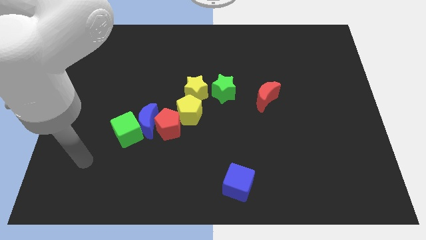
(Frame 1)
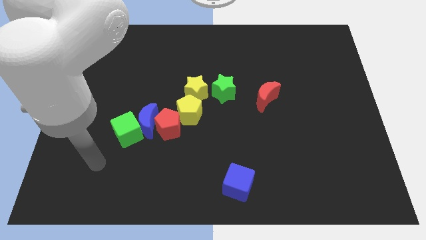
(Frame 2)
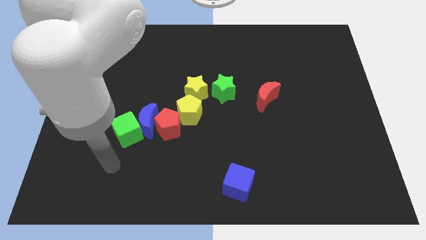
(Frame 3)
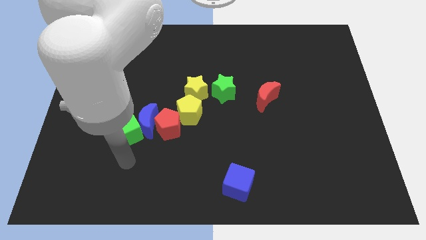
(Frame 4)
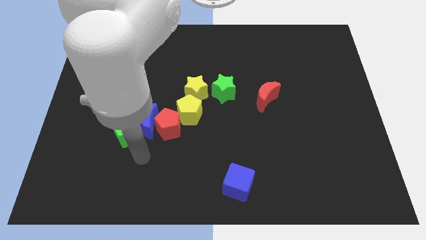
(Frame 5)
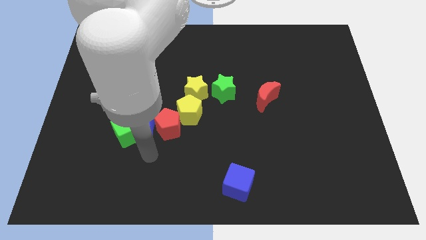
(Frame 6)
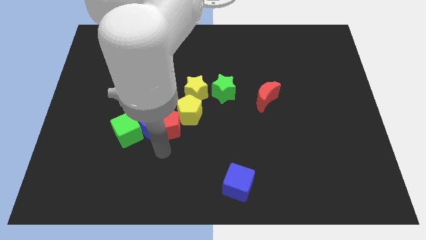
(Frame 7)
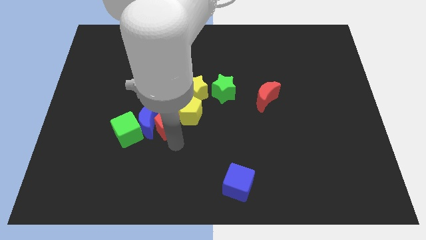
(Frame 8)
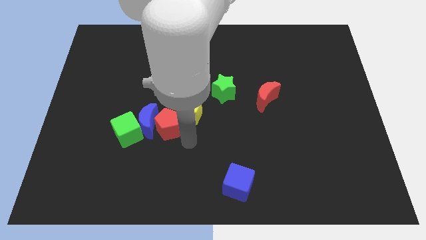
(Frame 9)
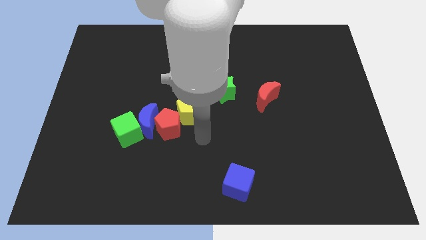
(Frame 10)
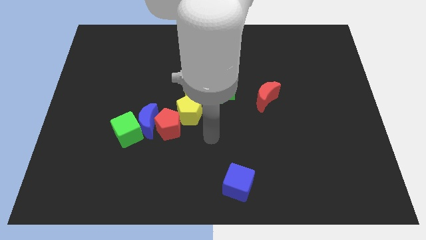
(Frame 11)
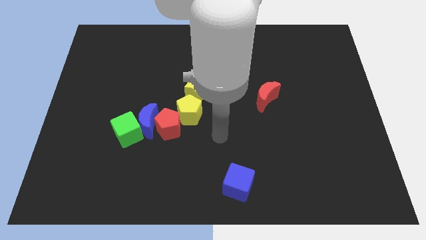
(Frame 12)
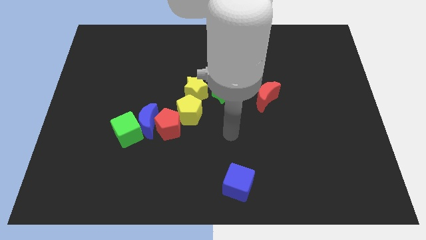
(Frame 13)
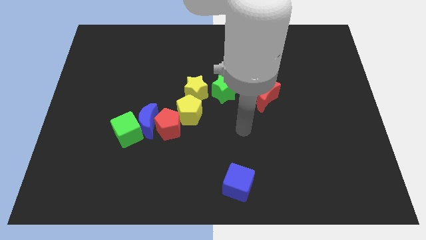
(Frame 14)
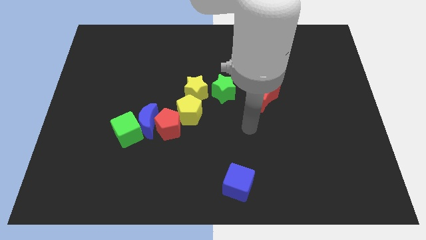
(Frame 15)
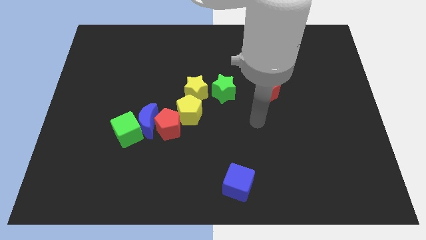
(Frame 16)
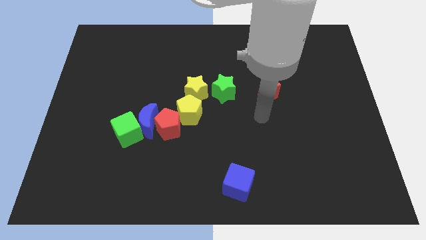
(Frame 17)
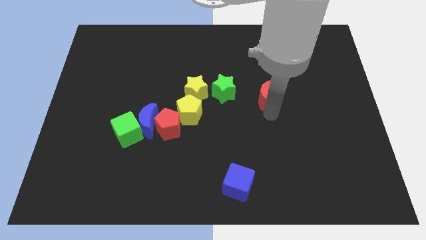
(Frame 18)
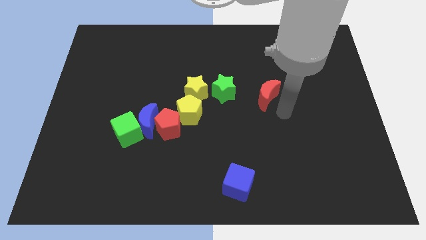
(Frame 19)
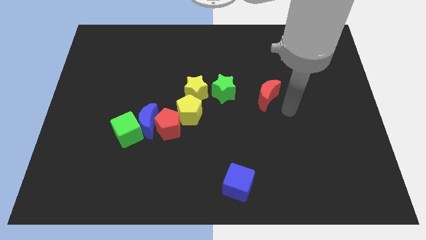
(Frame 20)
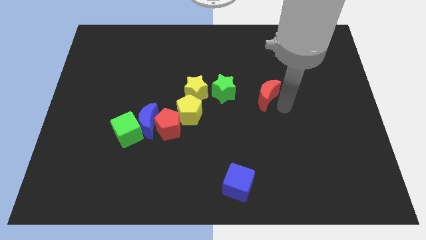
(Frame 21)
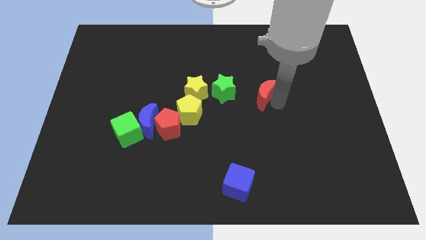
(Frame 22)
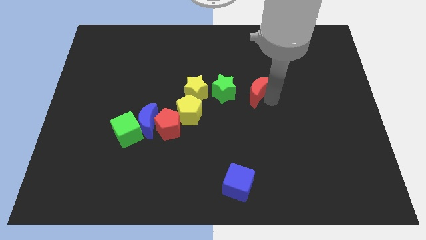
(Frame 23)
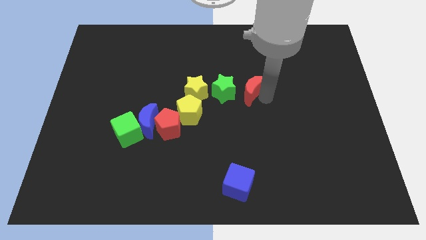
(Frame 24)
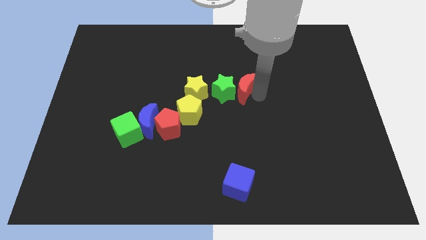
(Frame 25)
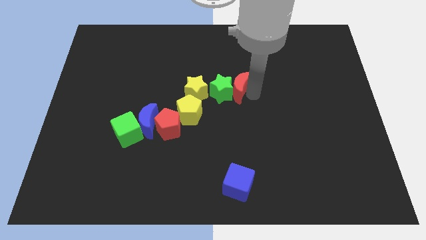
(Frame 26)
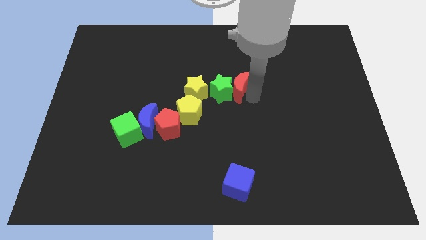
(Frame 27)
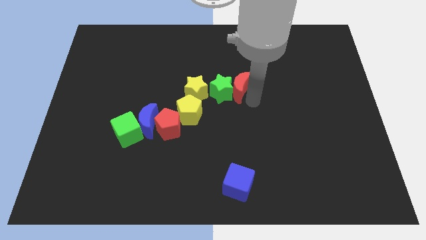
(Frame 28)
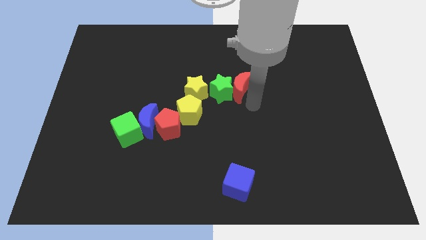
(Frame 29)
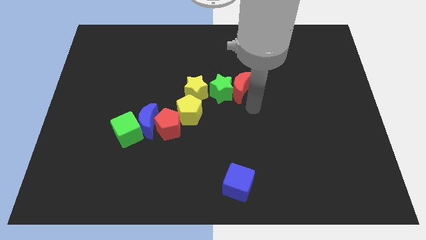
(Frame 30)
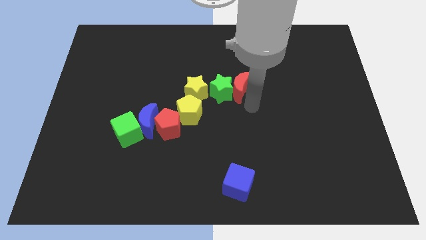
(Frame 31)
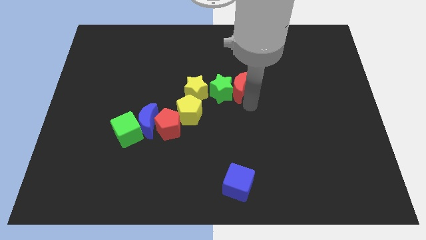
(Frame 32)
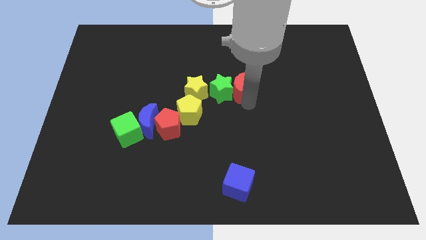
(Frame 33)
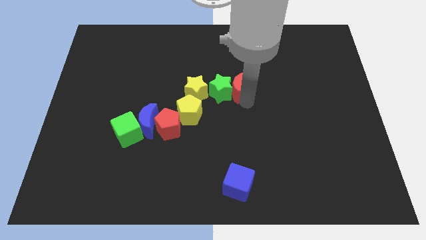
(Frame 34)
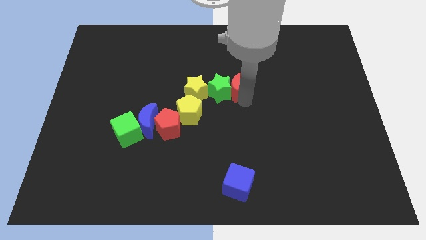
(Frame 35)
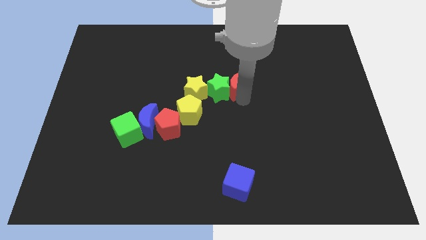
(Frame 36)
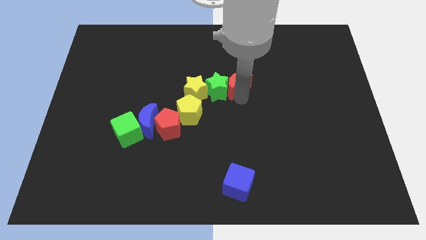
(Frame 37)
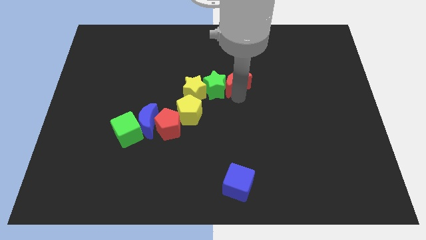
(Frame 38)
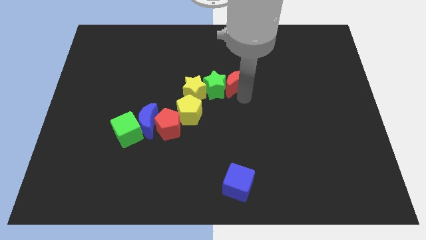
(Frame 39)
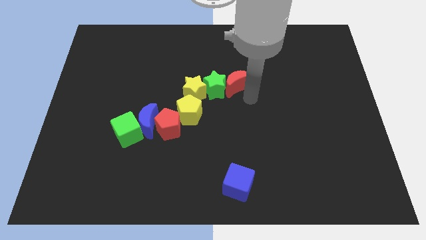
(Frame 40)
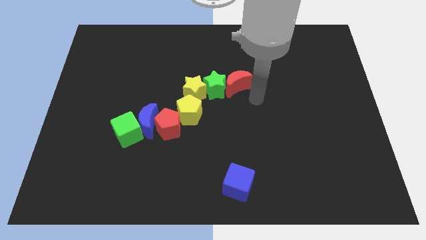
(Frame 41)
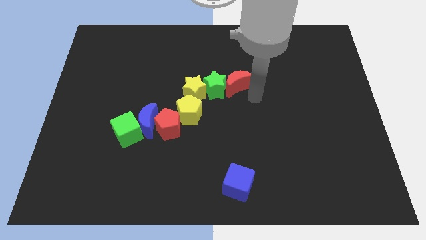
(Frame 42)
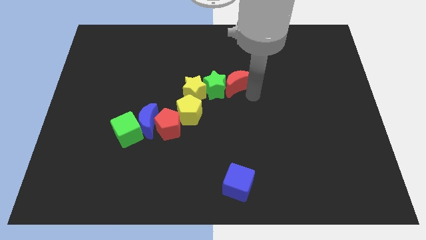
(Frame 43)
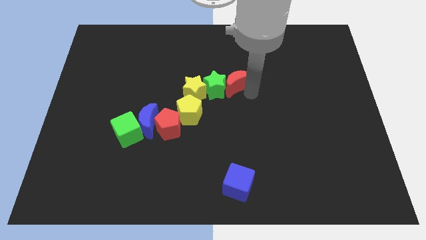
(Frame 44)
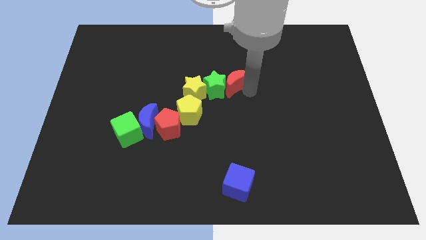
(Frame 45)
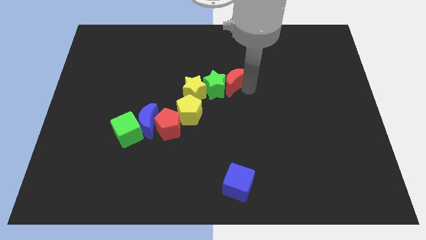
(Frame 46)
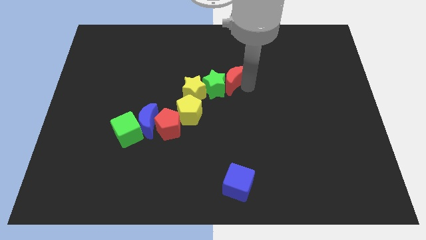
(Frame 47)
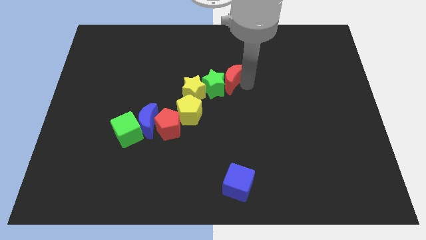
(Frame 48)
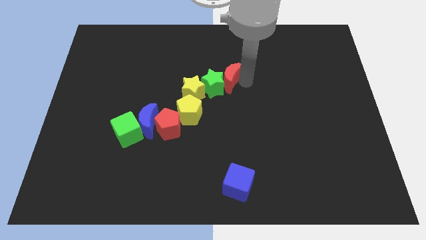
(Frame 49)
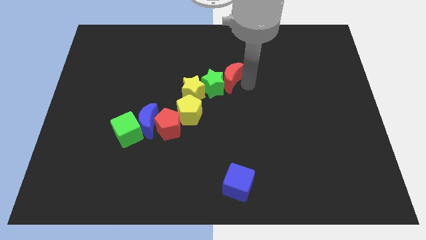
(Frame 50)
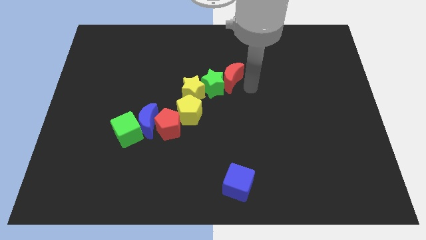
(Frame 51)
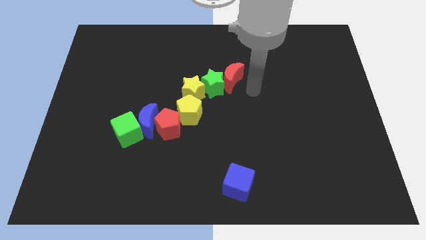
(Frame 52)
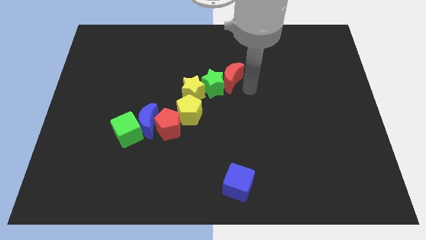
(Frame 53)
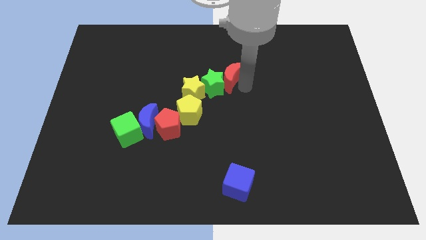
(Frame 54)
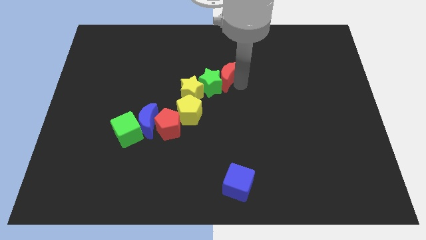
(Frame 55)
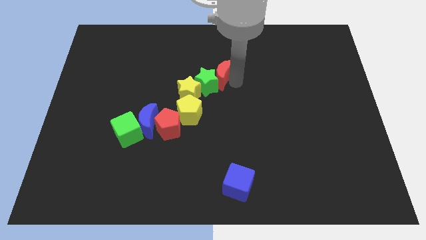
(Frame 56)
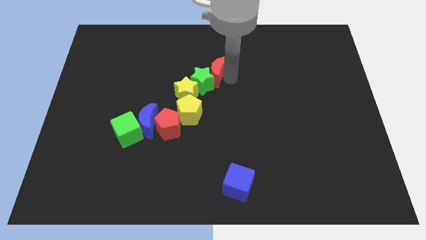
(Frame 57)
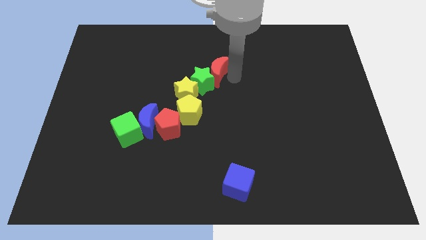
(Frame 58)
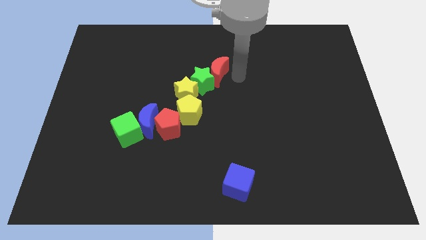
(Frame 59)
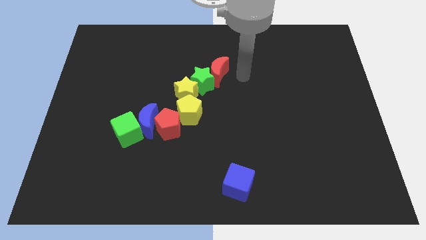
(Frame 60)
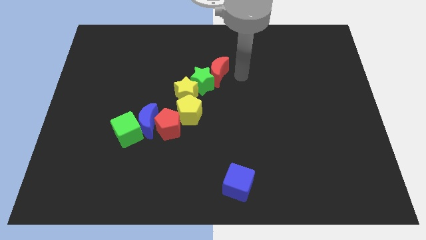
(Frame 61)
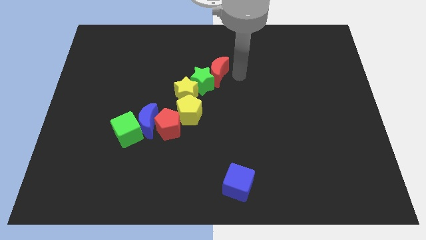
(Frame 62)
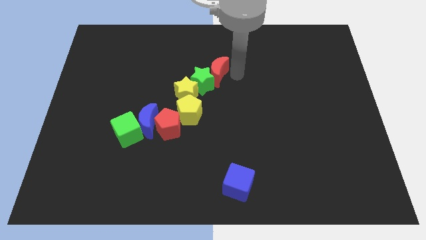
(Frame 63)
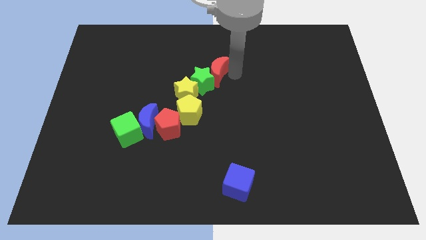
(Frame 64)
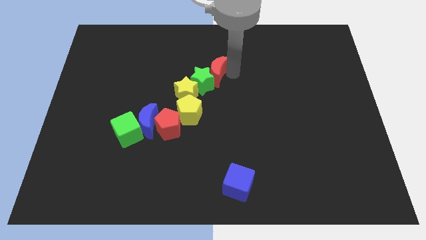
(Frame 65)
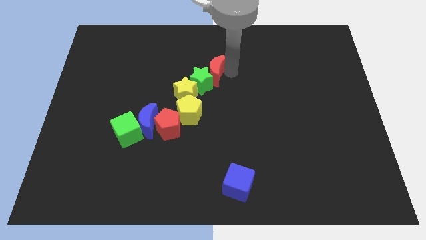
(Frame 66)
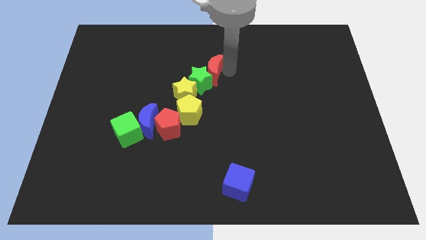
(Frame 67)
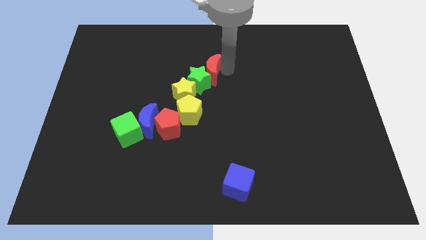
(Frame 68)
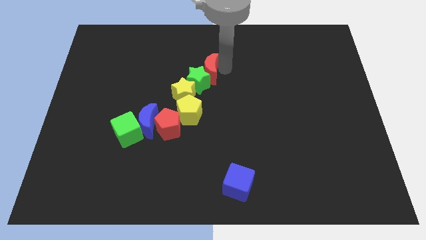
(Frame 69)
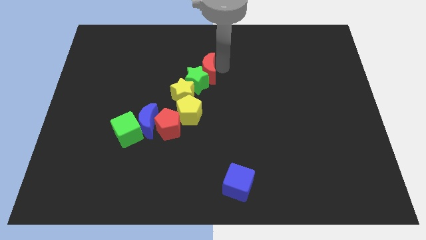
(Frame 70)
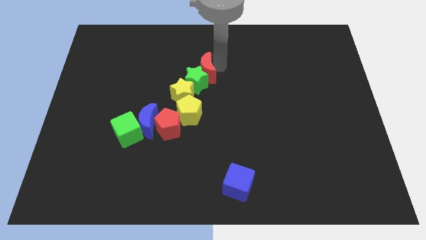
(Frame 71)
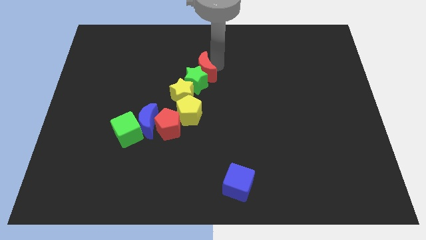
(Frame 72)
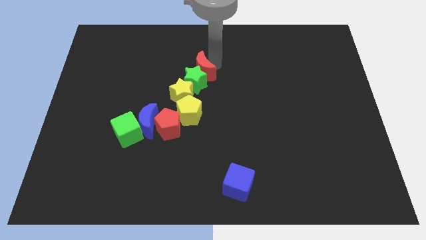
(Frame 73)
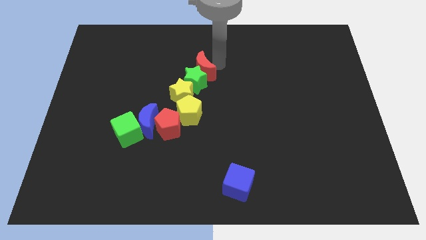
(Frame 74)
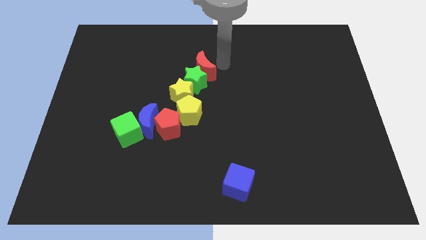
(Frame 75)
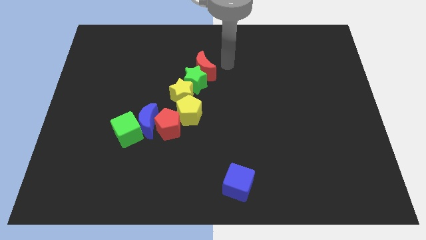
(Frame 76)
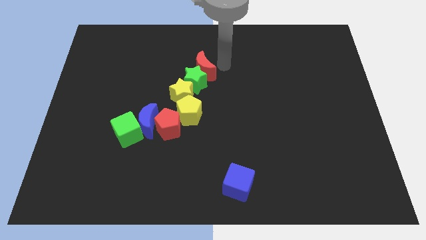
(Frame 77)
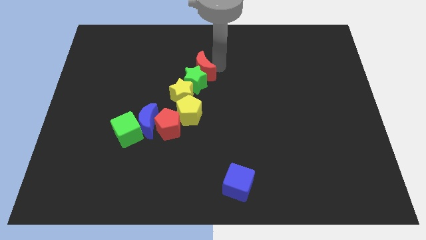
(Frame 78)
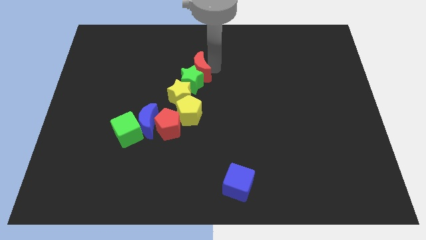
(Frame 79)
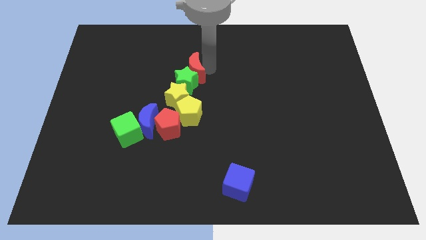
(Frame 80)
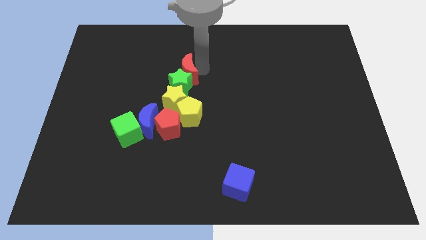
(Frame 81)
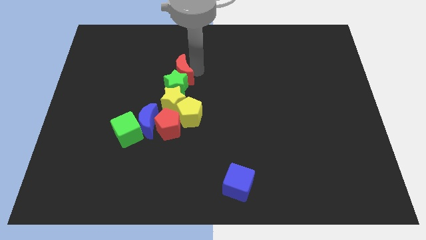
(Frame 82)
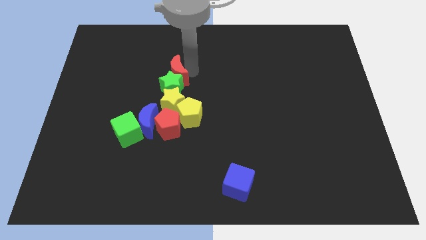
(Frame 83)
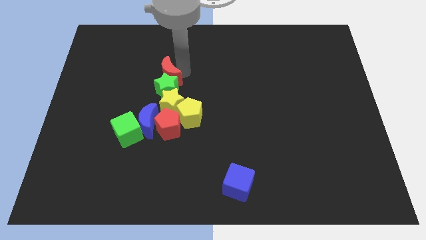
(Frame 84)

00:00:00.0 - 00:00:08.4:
slide the red moon to the left
